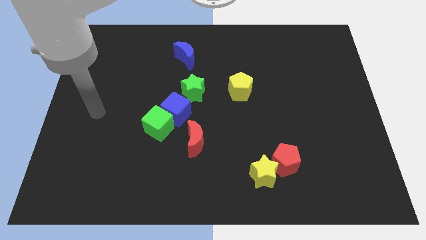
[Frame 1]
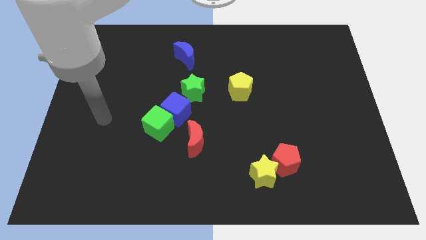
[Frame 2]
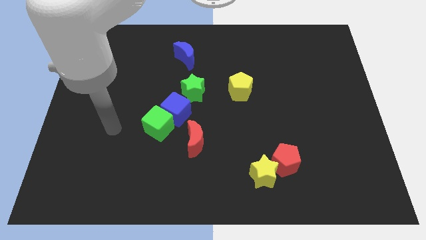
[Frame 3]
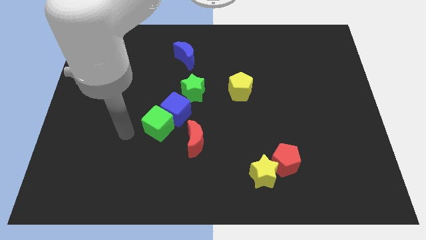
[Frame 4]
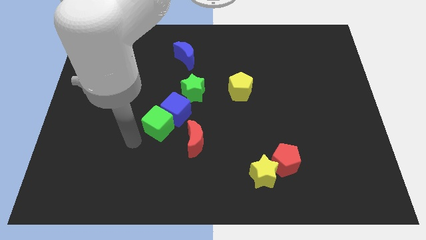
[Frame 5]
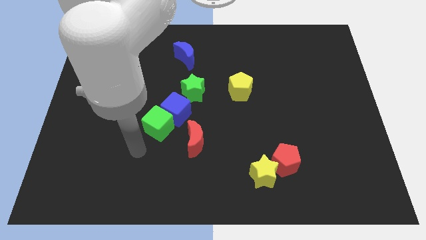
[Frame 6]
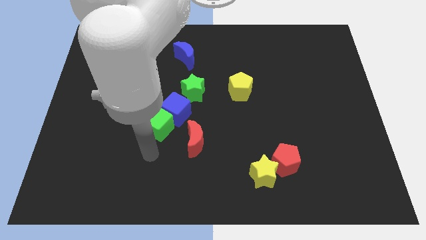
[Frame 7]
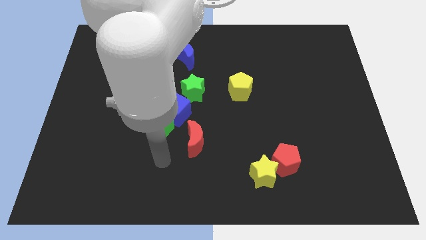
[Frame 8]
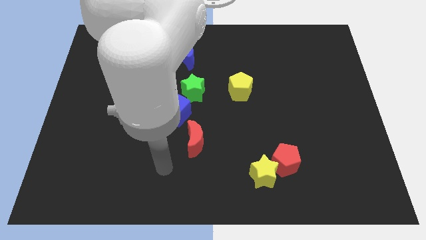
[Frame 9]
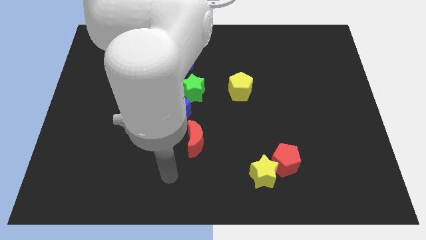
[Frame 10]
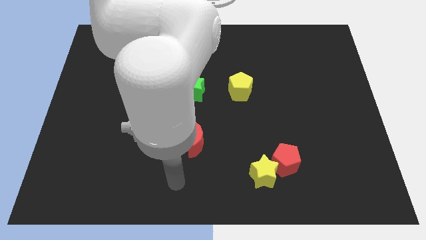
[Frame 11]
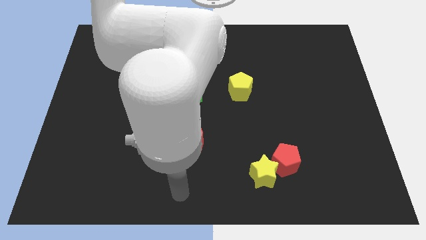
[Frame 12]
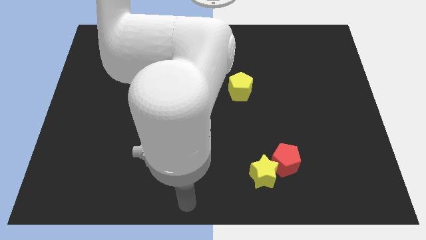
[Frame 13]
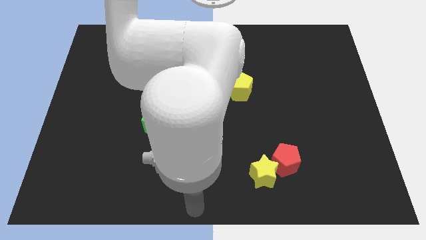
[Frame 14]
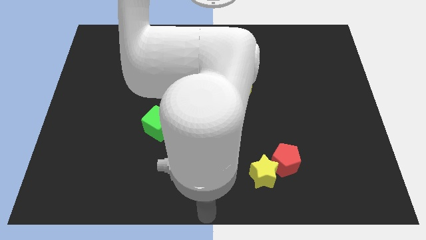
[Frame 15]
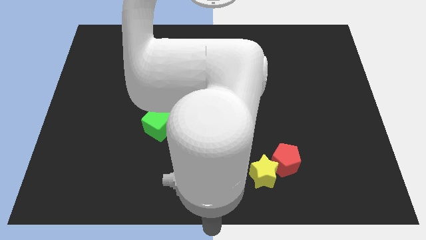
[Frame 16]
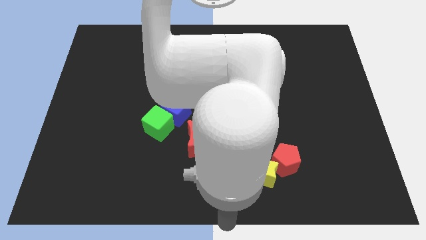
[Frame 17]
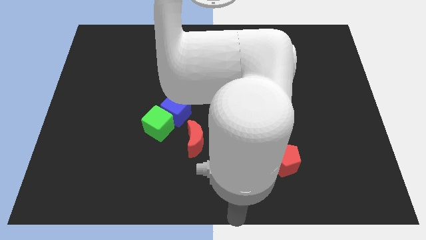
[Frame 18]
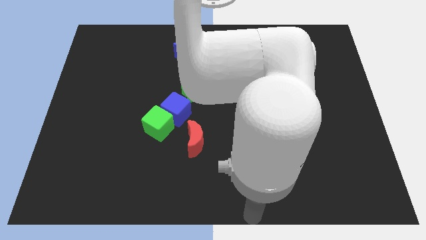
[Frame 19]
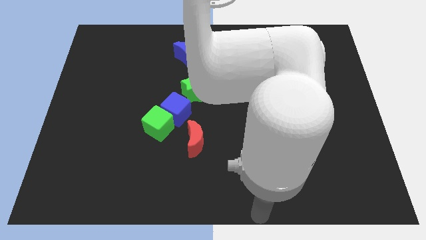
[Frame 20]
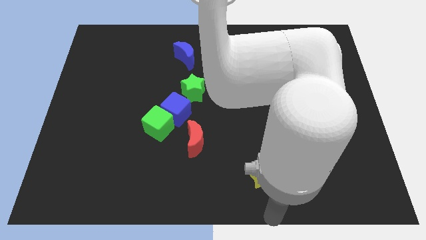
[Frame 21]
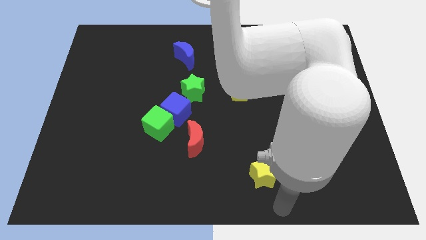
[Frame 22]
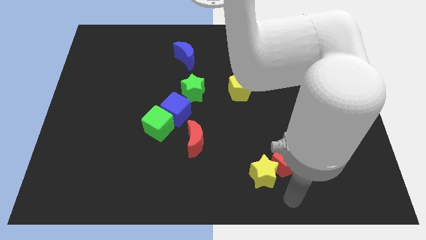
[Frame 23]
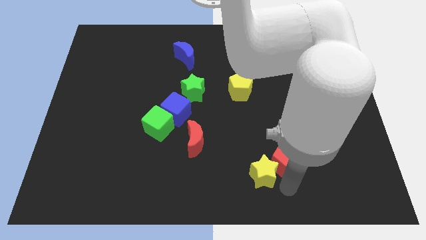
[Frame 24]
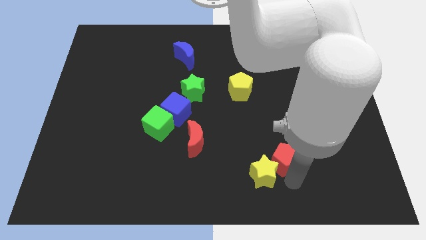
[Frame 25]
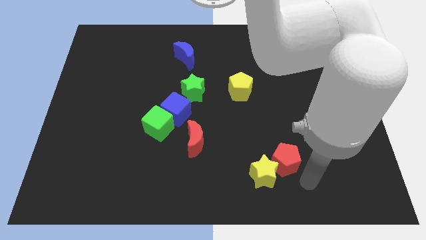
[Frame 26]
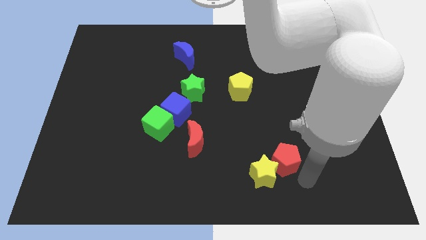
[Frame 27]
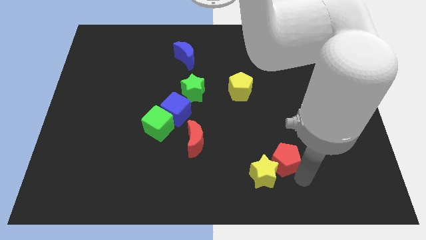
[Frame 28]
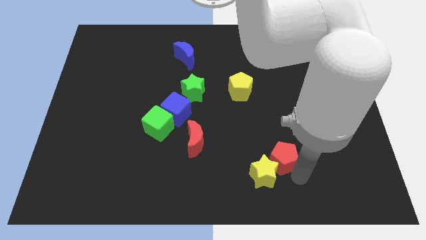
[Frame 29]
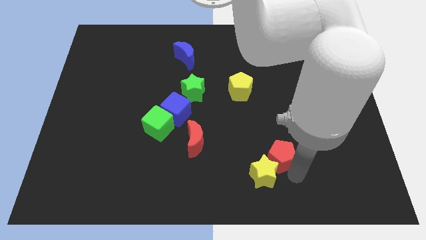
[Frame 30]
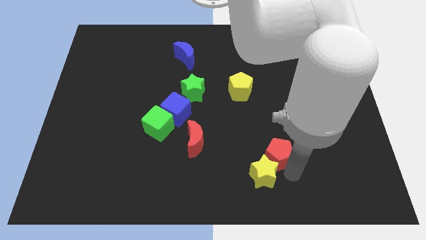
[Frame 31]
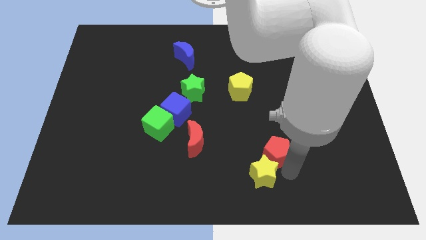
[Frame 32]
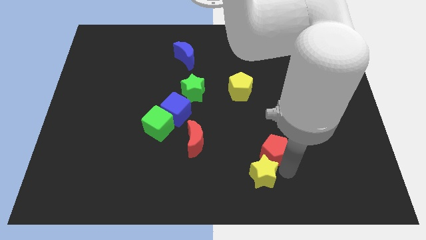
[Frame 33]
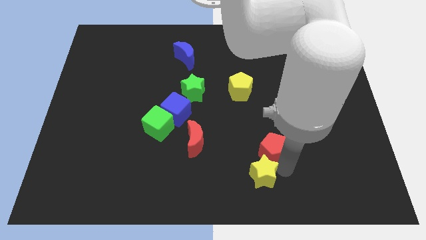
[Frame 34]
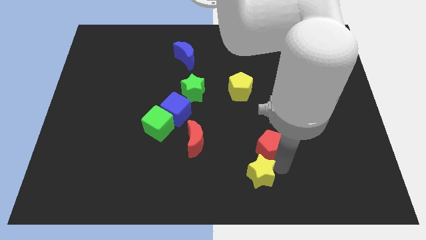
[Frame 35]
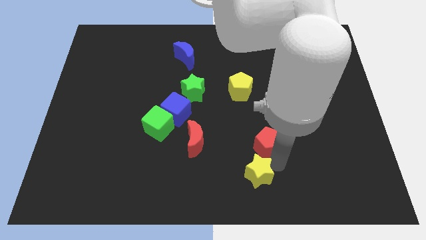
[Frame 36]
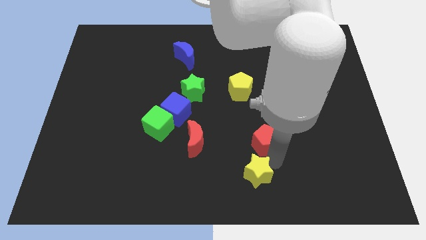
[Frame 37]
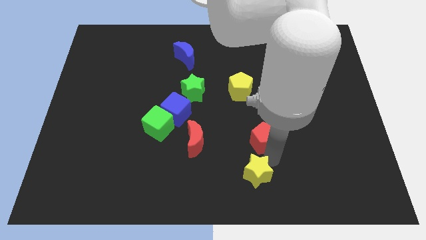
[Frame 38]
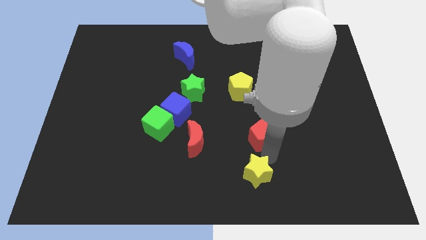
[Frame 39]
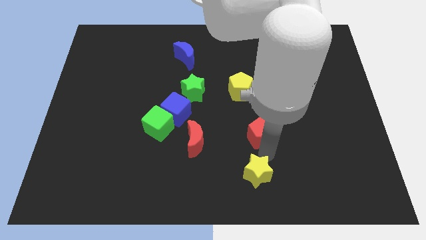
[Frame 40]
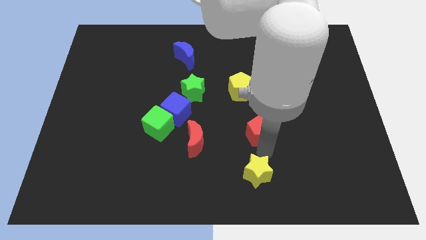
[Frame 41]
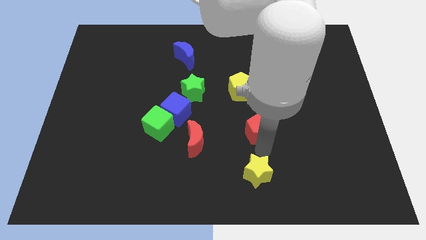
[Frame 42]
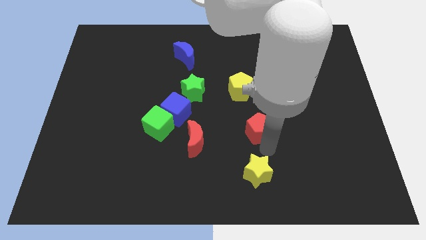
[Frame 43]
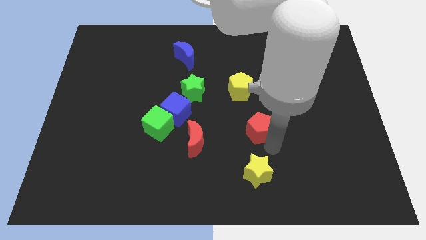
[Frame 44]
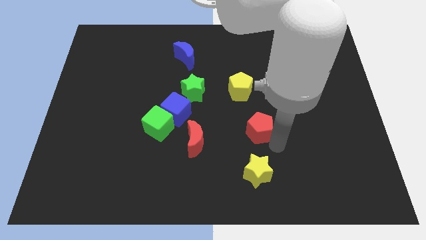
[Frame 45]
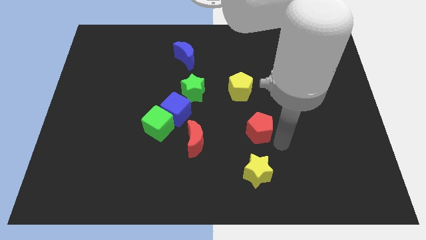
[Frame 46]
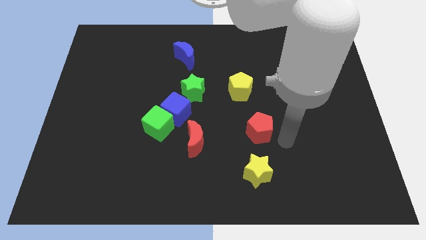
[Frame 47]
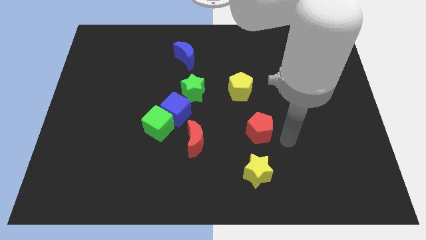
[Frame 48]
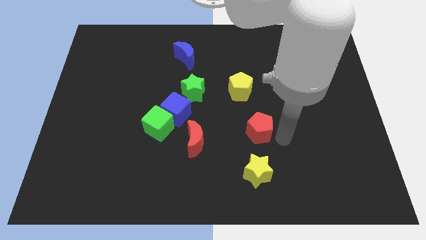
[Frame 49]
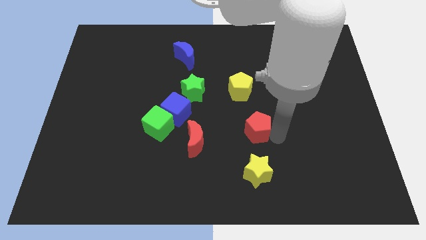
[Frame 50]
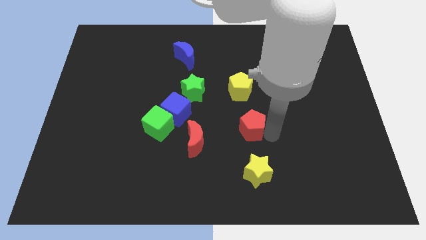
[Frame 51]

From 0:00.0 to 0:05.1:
move the red pentagon to the middle

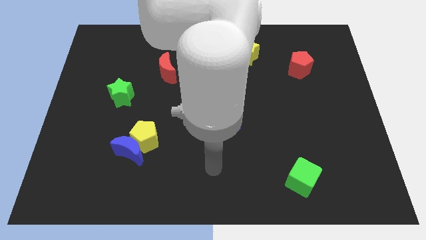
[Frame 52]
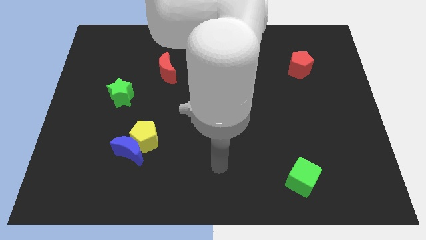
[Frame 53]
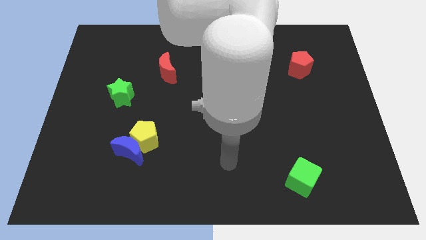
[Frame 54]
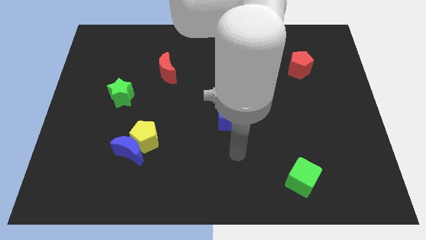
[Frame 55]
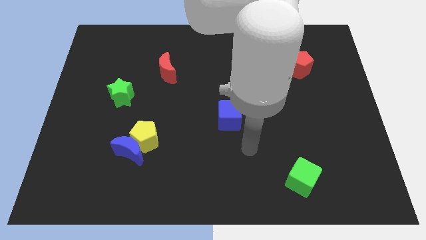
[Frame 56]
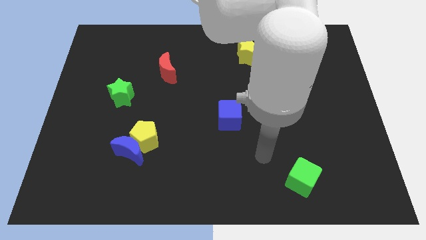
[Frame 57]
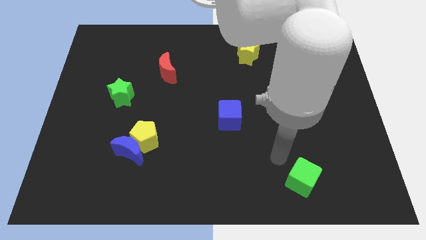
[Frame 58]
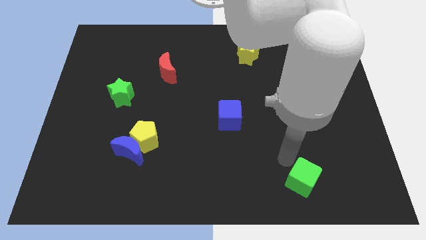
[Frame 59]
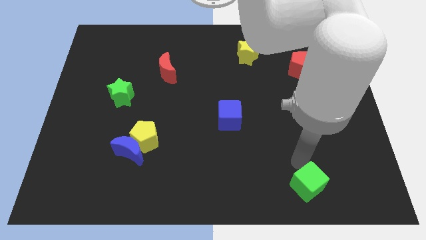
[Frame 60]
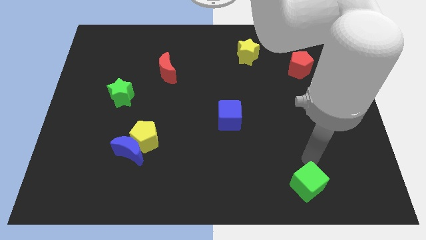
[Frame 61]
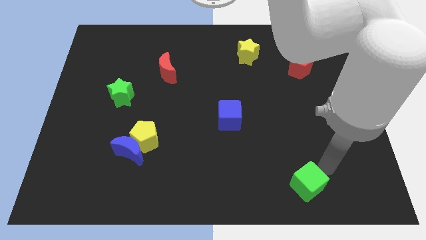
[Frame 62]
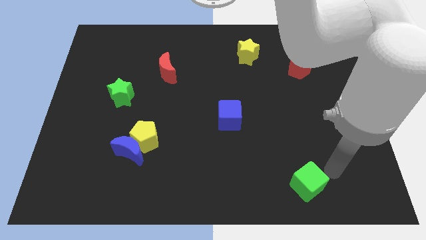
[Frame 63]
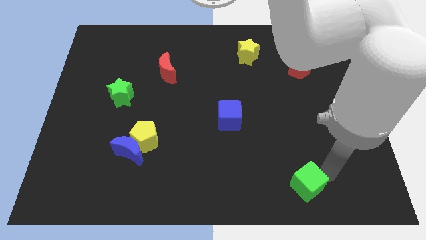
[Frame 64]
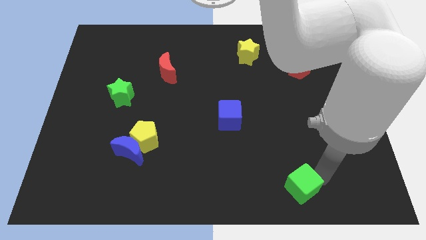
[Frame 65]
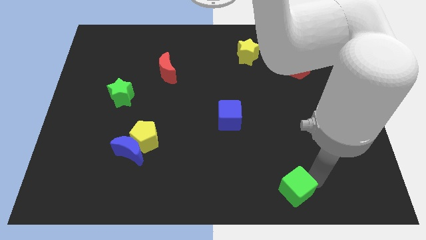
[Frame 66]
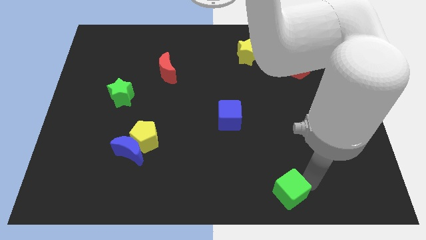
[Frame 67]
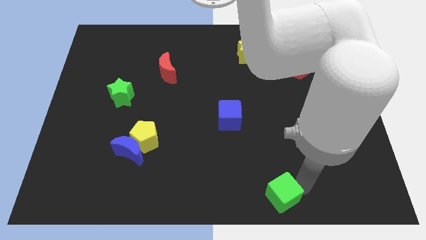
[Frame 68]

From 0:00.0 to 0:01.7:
move the green cube to the bottom

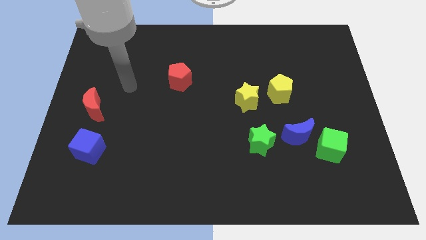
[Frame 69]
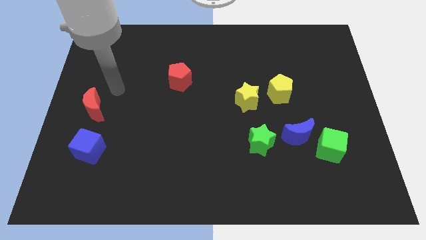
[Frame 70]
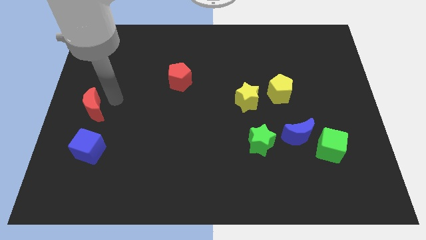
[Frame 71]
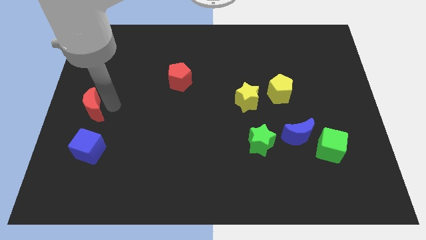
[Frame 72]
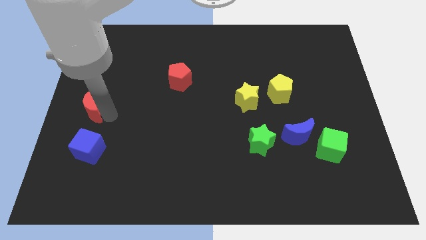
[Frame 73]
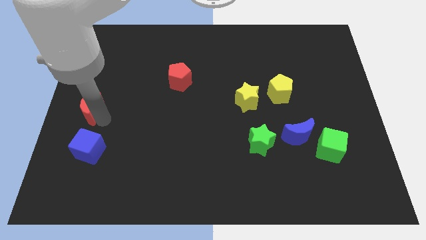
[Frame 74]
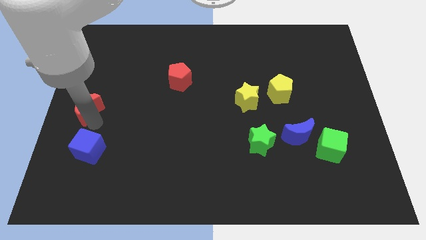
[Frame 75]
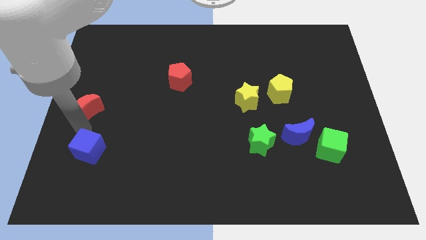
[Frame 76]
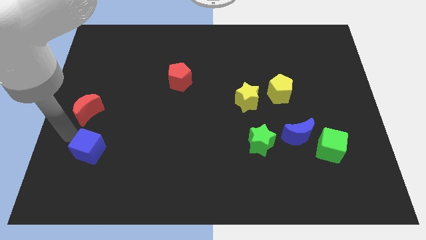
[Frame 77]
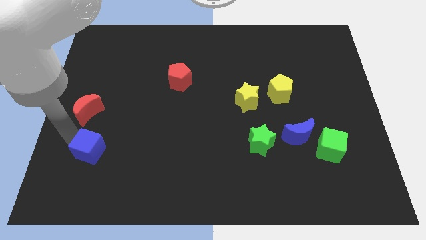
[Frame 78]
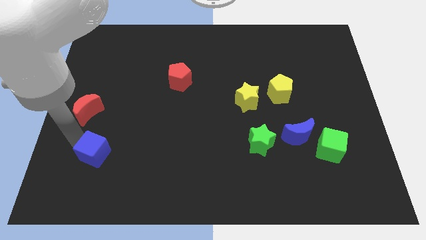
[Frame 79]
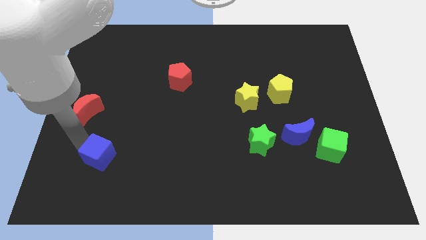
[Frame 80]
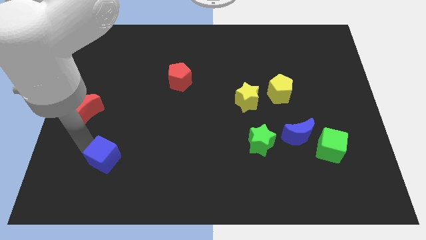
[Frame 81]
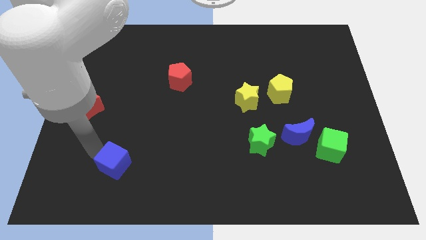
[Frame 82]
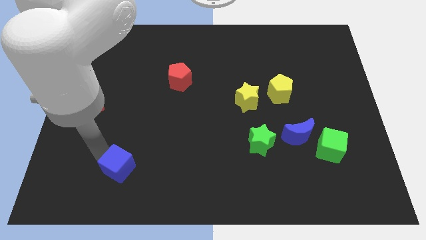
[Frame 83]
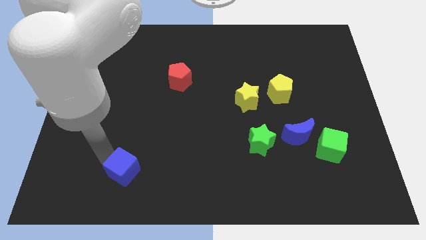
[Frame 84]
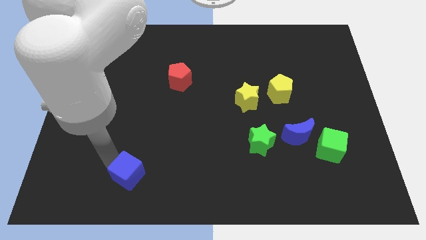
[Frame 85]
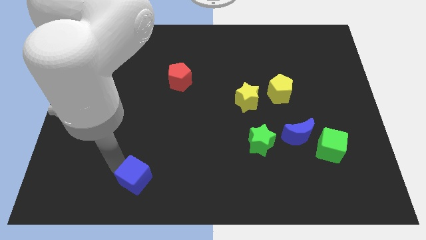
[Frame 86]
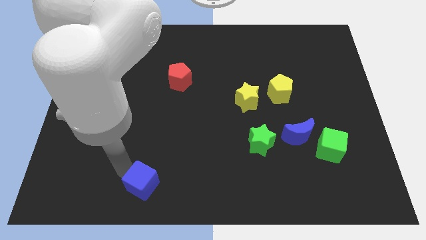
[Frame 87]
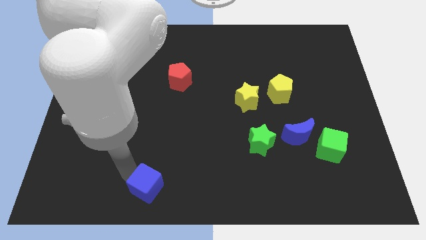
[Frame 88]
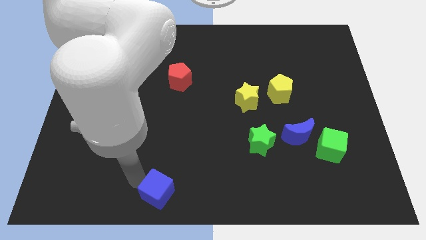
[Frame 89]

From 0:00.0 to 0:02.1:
slide the blue cube to the bottom side
